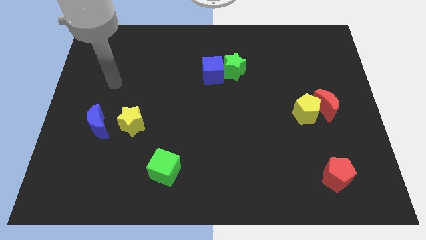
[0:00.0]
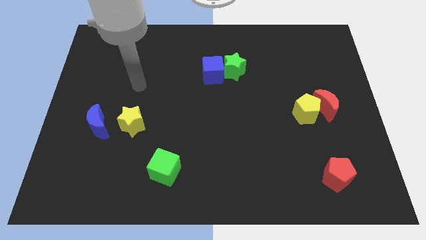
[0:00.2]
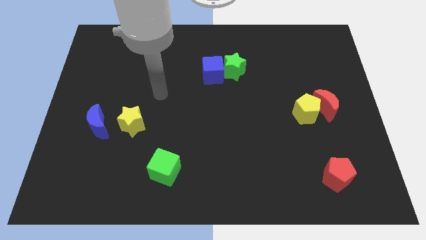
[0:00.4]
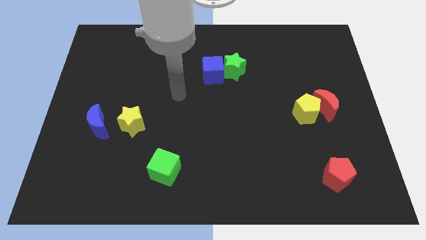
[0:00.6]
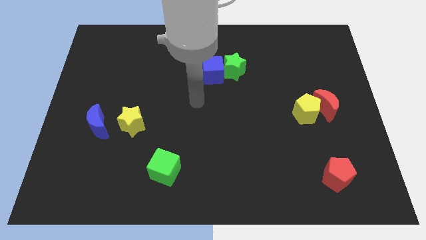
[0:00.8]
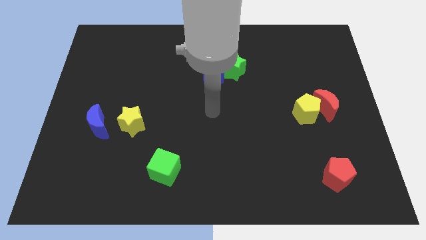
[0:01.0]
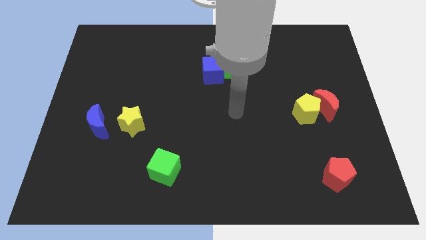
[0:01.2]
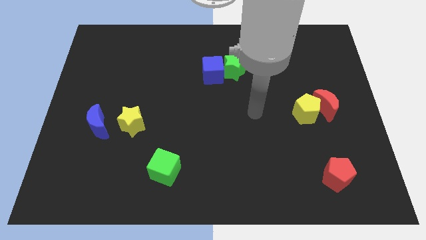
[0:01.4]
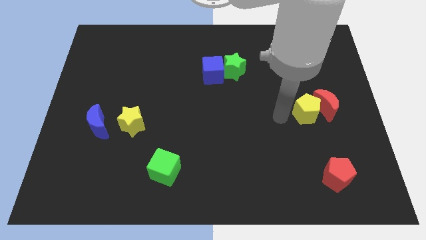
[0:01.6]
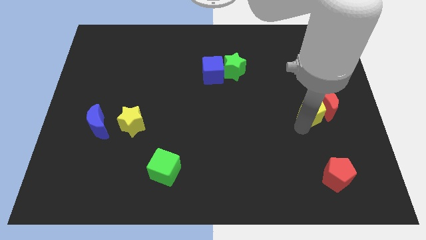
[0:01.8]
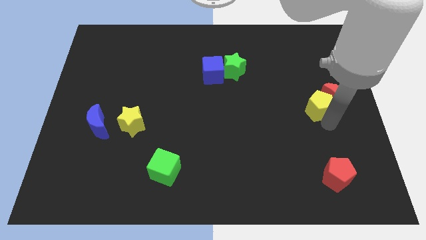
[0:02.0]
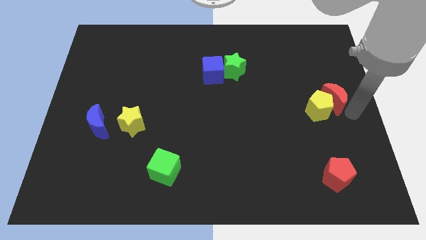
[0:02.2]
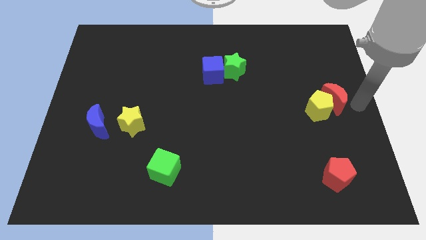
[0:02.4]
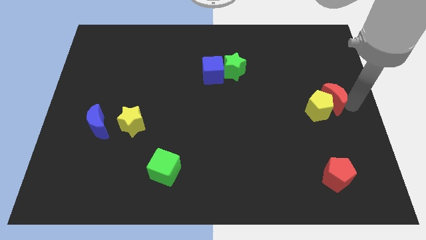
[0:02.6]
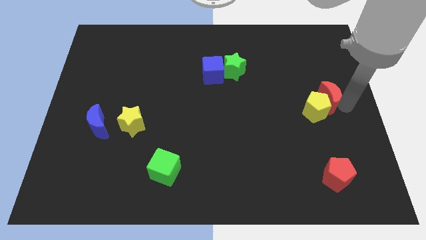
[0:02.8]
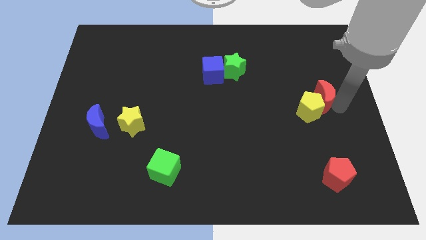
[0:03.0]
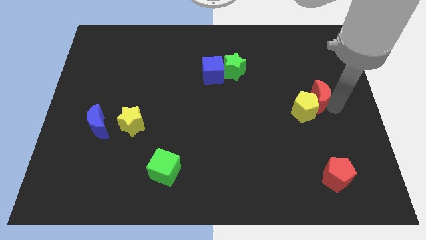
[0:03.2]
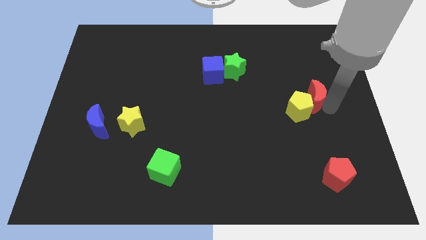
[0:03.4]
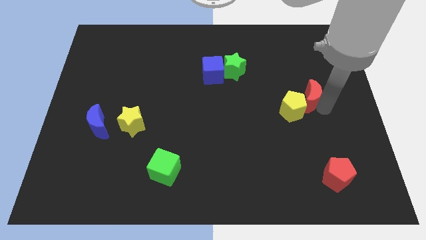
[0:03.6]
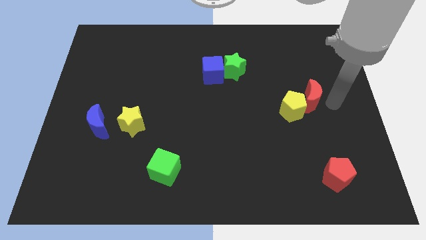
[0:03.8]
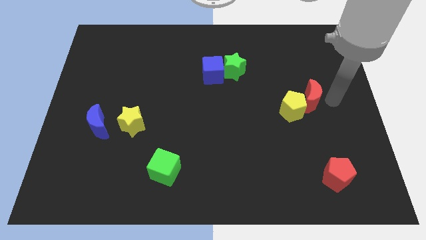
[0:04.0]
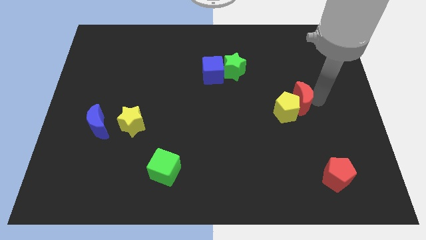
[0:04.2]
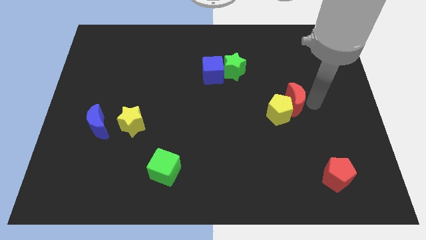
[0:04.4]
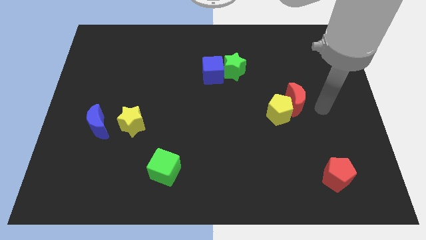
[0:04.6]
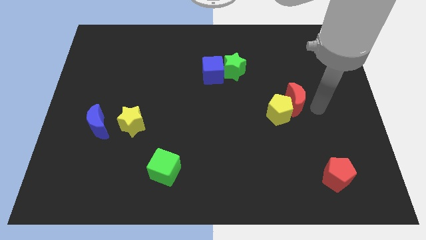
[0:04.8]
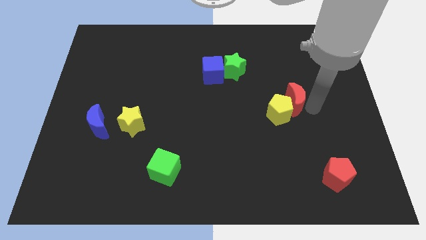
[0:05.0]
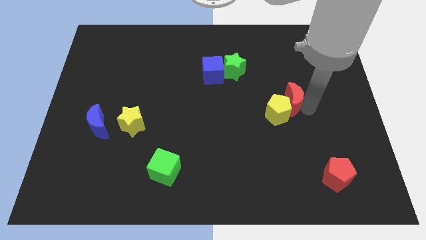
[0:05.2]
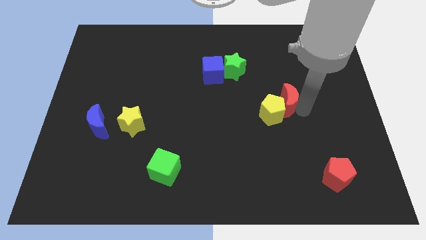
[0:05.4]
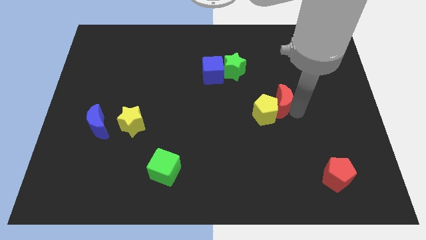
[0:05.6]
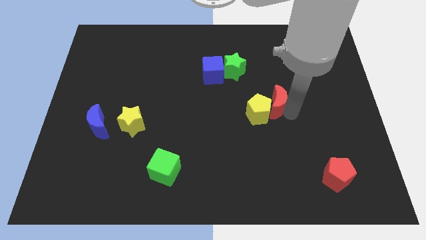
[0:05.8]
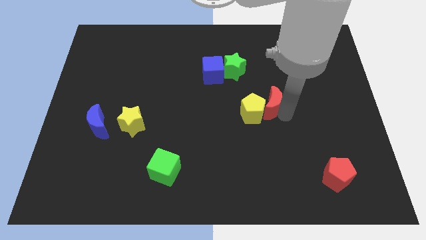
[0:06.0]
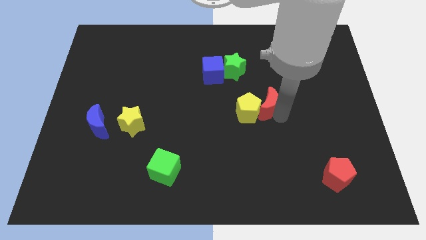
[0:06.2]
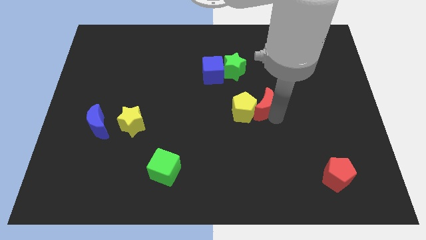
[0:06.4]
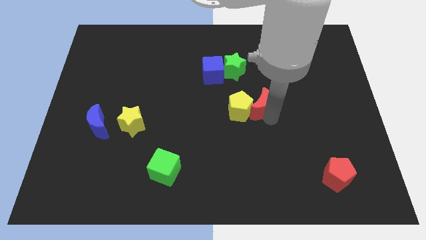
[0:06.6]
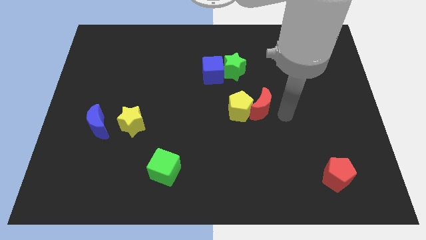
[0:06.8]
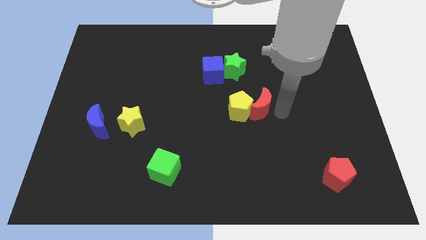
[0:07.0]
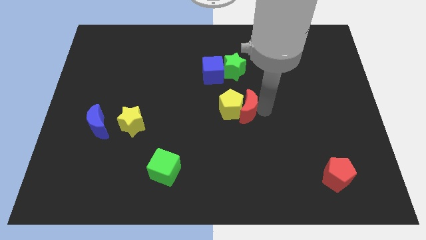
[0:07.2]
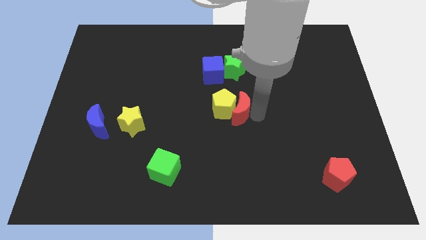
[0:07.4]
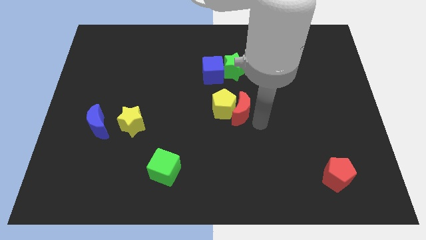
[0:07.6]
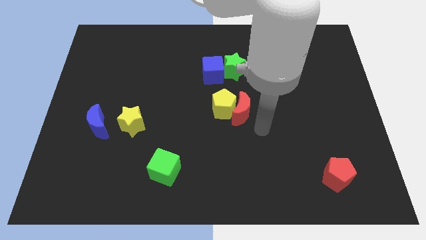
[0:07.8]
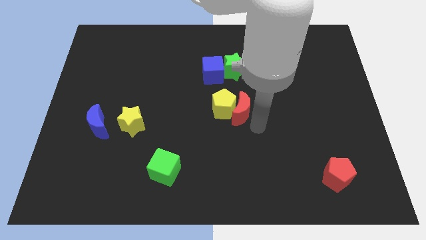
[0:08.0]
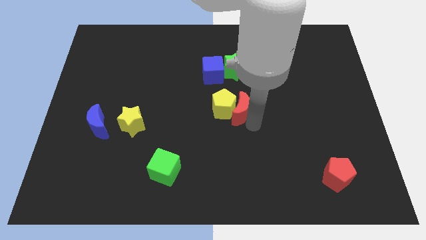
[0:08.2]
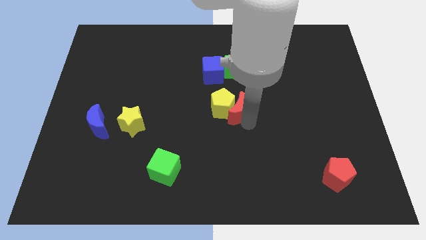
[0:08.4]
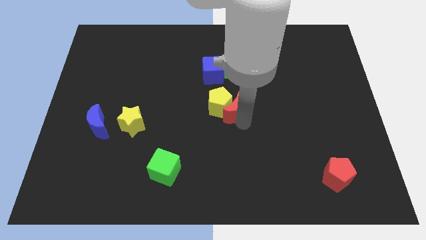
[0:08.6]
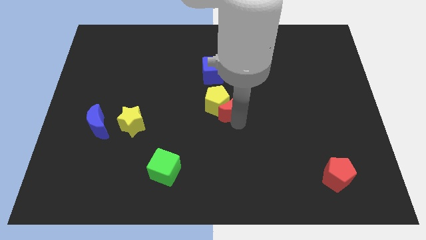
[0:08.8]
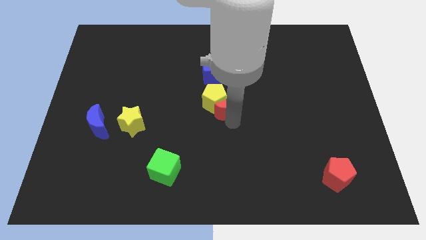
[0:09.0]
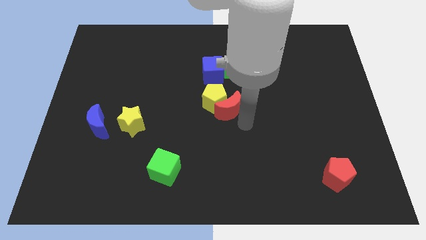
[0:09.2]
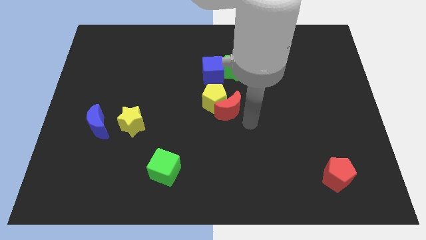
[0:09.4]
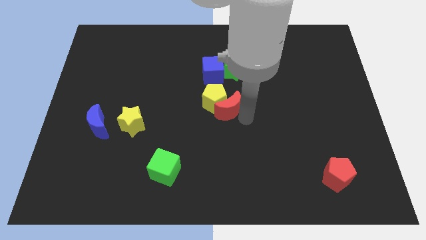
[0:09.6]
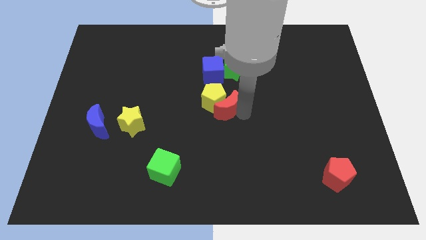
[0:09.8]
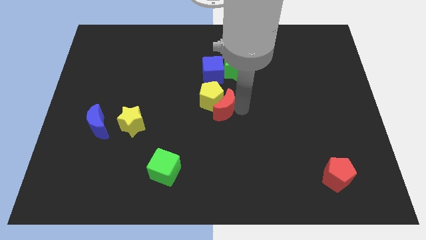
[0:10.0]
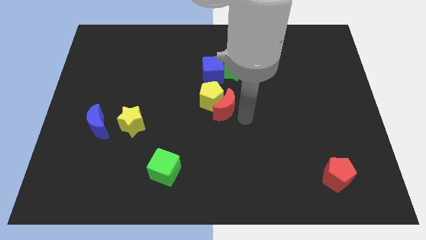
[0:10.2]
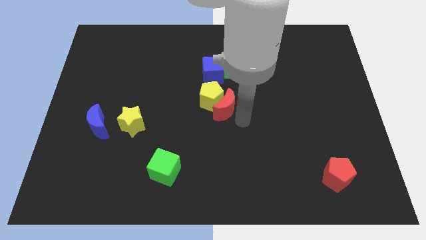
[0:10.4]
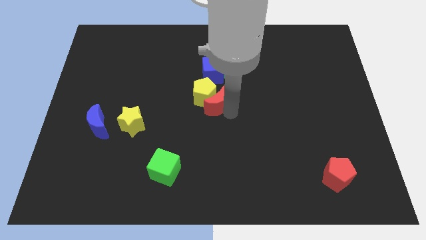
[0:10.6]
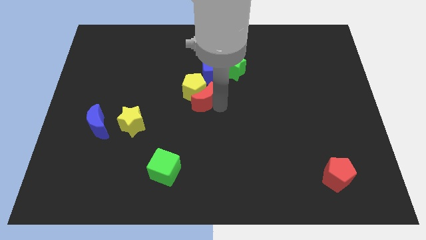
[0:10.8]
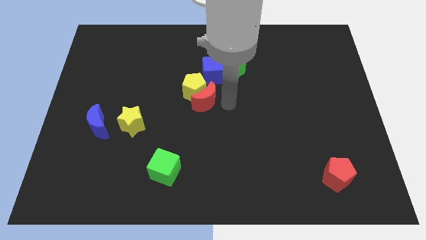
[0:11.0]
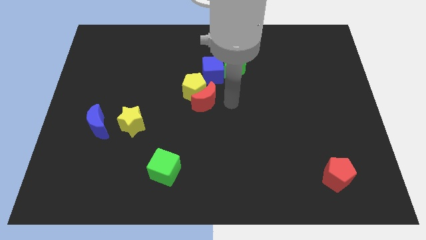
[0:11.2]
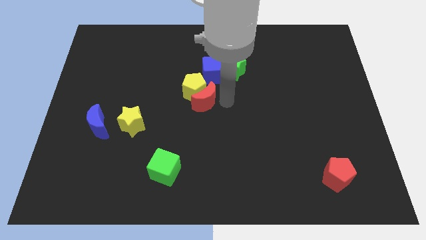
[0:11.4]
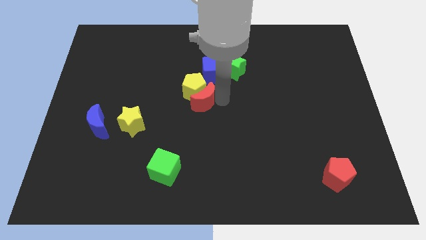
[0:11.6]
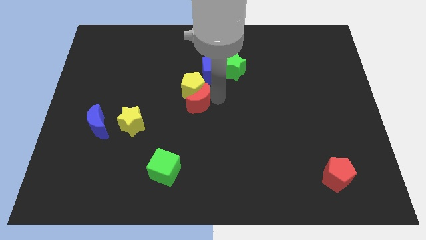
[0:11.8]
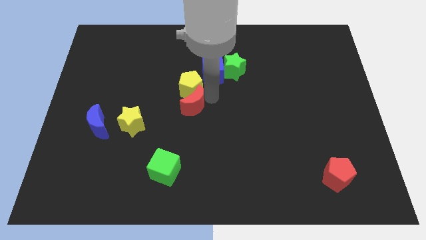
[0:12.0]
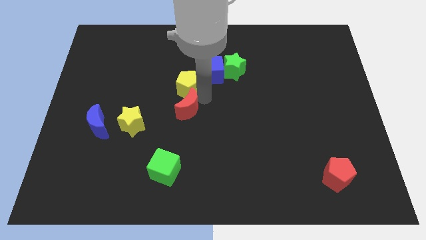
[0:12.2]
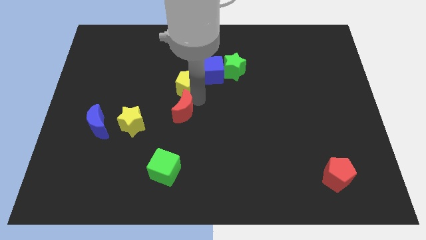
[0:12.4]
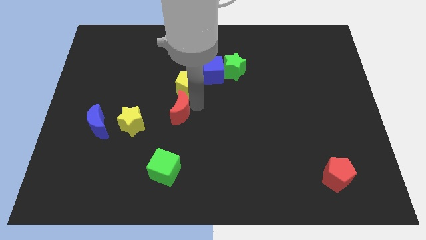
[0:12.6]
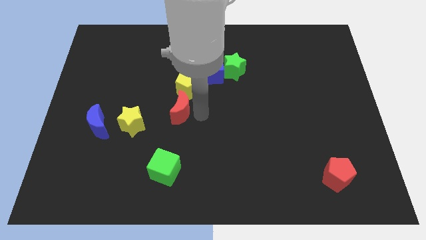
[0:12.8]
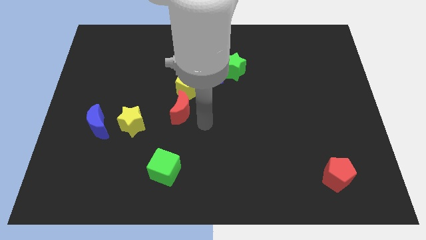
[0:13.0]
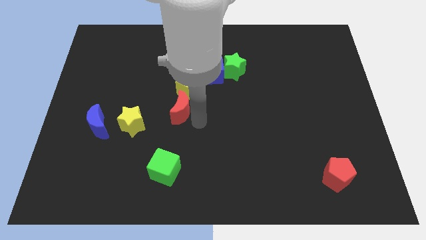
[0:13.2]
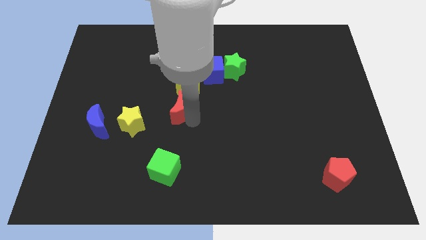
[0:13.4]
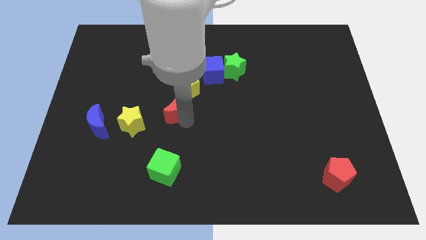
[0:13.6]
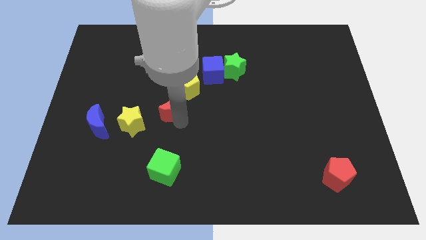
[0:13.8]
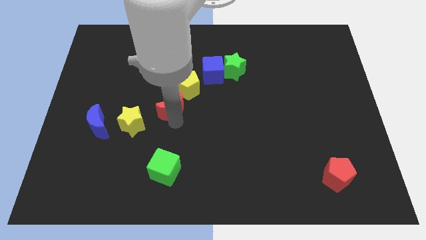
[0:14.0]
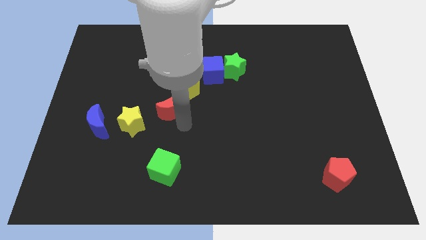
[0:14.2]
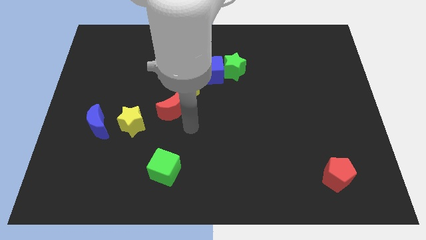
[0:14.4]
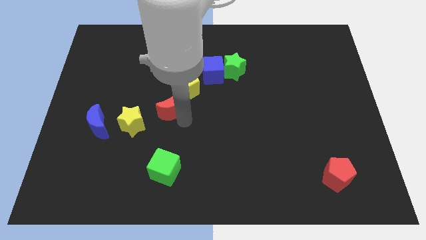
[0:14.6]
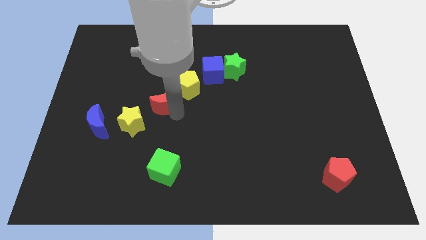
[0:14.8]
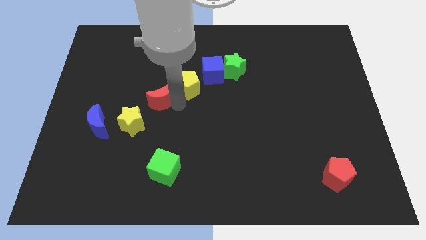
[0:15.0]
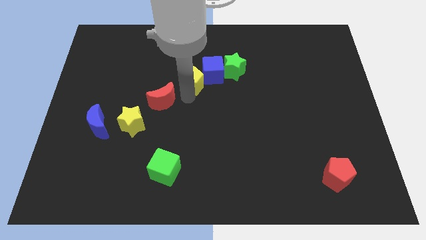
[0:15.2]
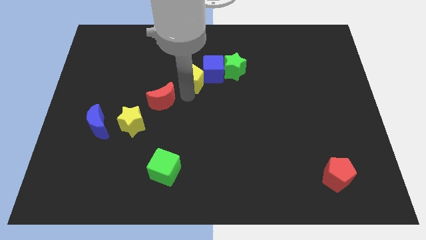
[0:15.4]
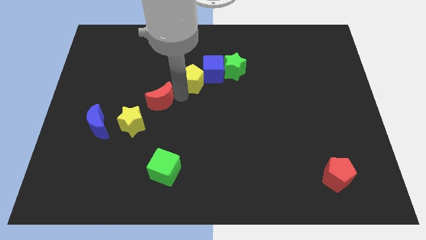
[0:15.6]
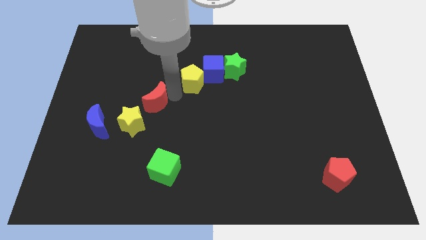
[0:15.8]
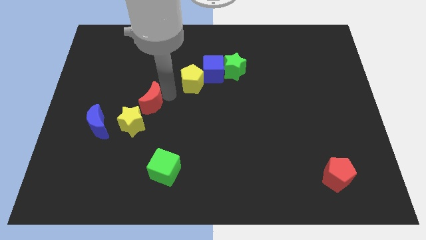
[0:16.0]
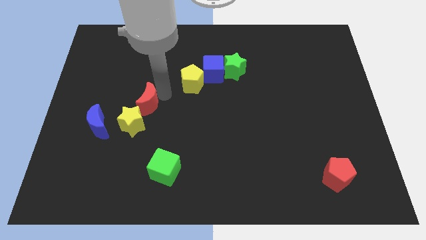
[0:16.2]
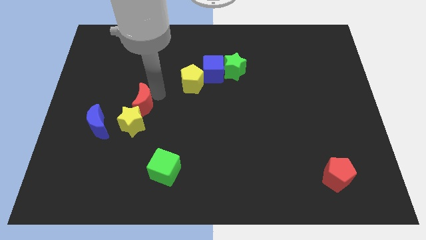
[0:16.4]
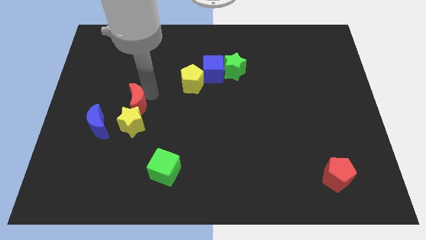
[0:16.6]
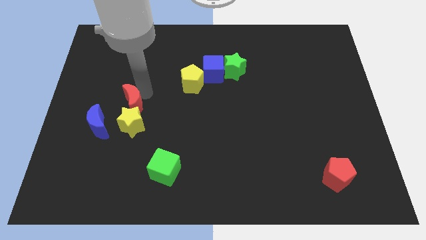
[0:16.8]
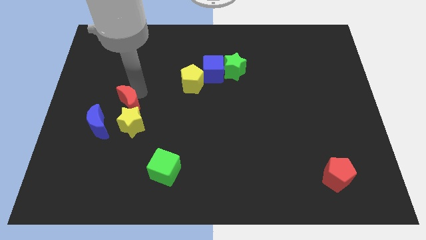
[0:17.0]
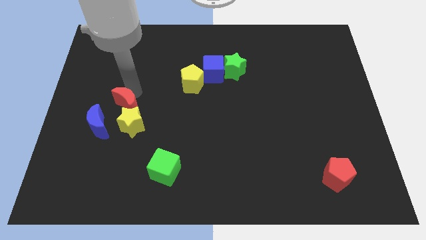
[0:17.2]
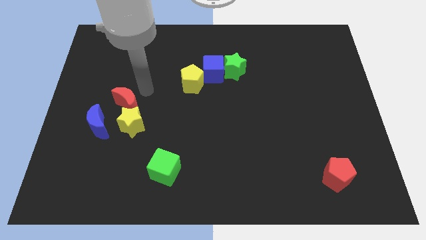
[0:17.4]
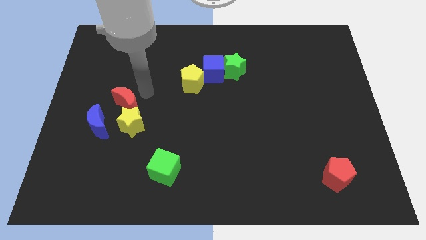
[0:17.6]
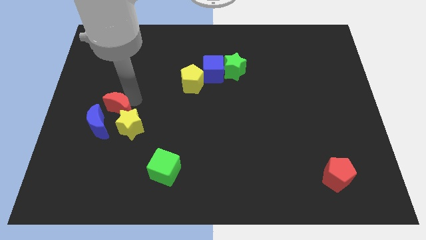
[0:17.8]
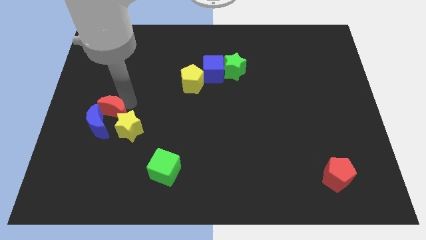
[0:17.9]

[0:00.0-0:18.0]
push the red moon to the blue moon
